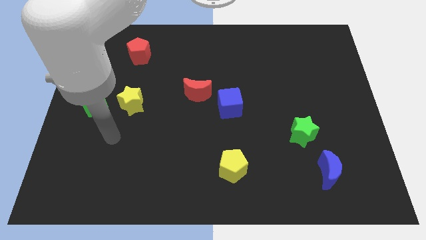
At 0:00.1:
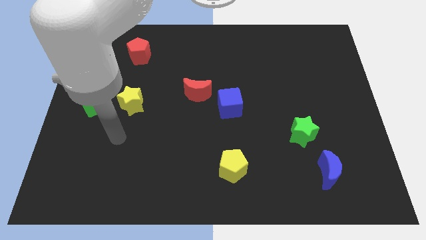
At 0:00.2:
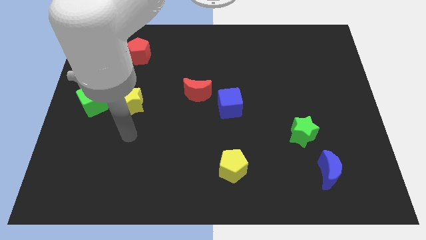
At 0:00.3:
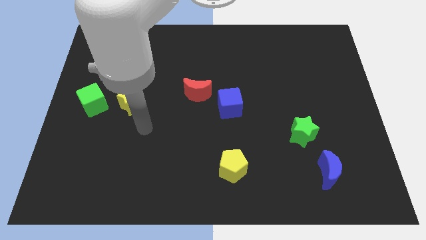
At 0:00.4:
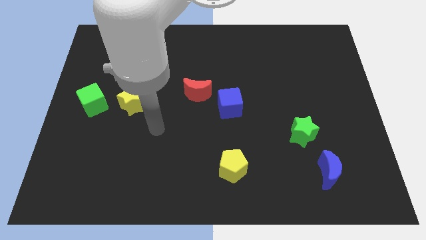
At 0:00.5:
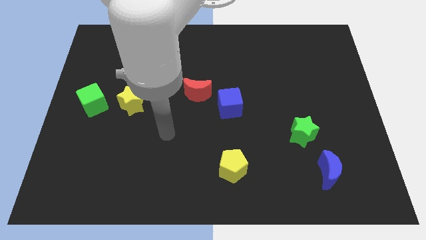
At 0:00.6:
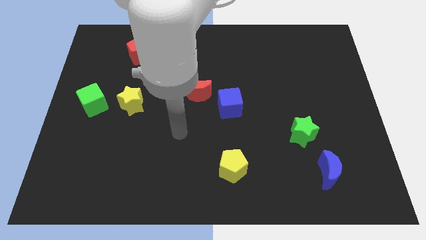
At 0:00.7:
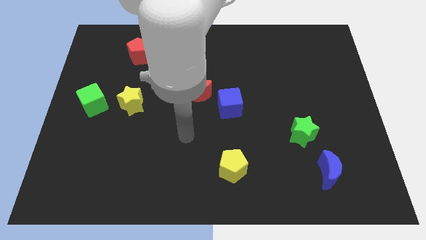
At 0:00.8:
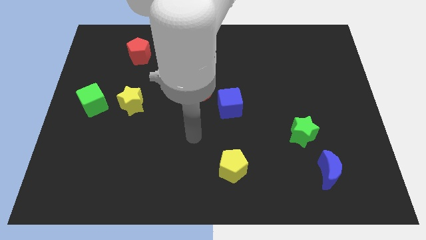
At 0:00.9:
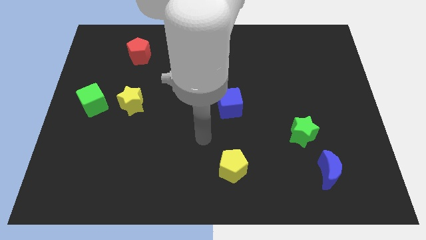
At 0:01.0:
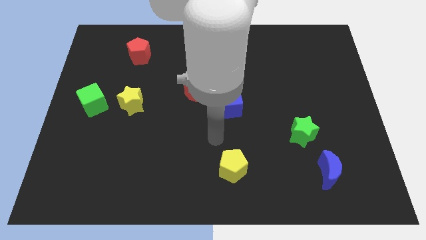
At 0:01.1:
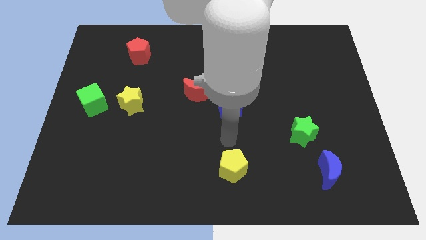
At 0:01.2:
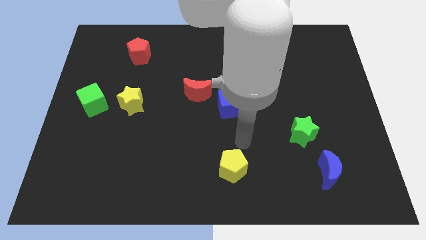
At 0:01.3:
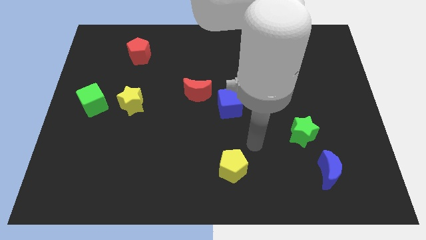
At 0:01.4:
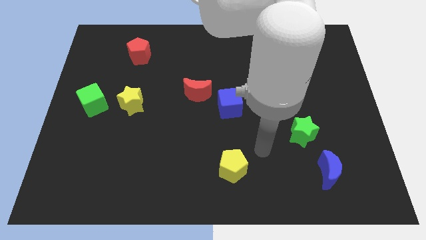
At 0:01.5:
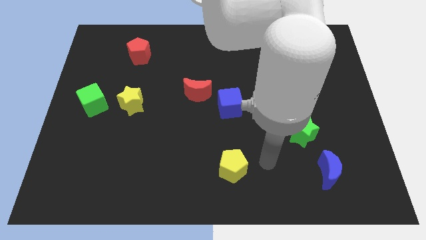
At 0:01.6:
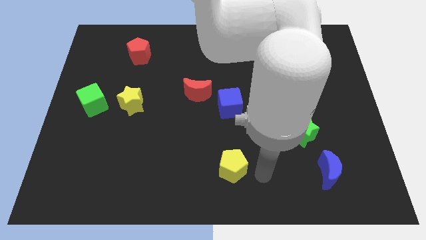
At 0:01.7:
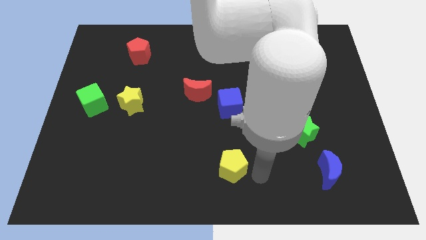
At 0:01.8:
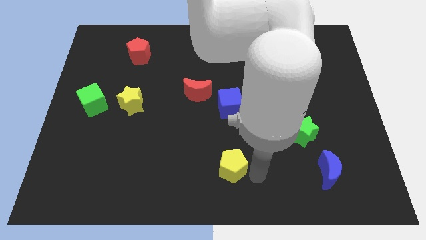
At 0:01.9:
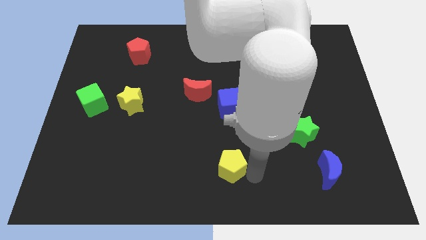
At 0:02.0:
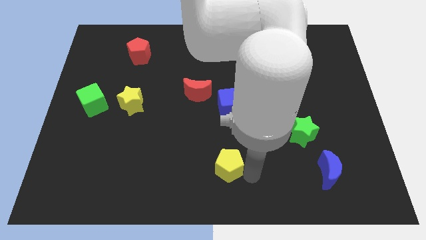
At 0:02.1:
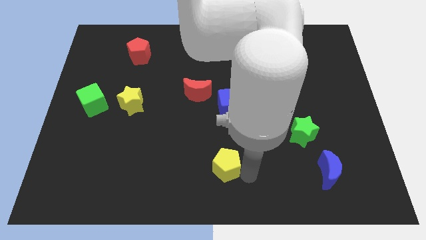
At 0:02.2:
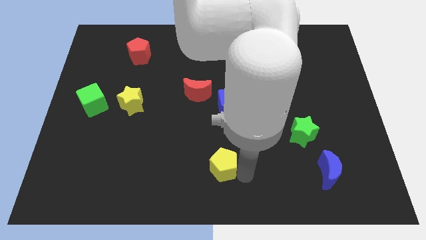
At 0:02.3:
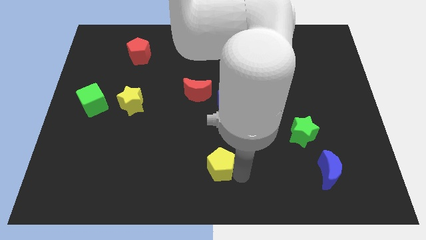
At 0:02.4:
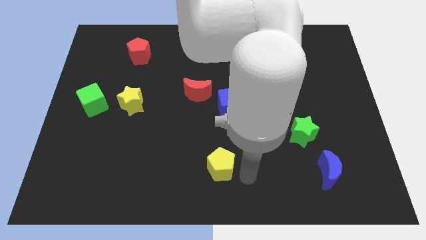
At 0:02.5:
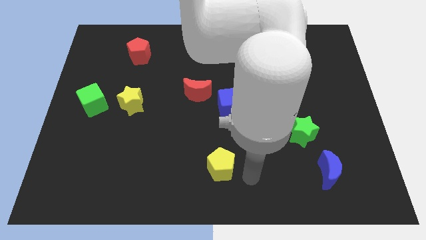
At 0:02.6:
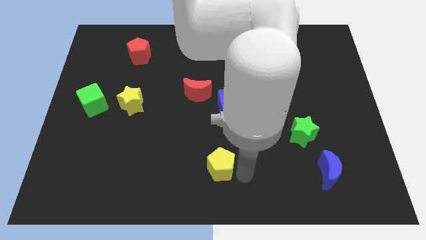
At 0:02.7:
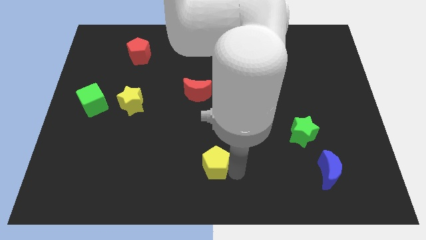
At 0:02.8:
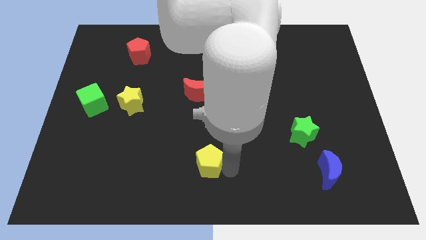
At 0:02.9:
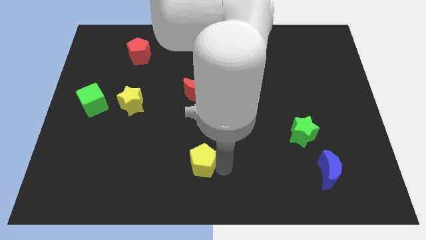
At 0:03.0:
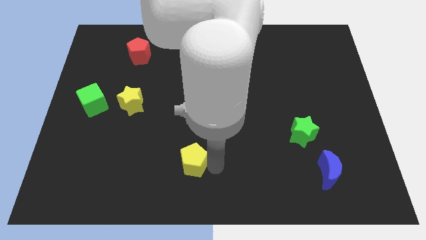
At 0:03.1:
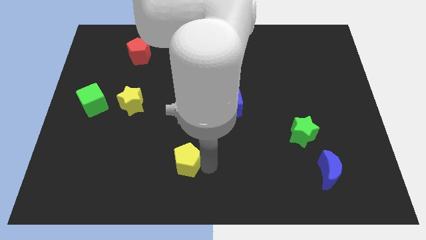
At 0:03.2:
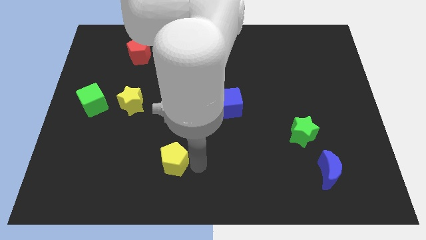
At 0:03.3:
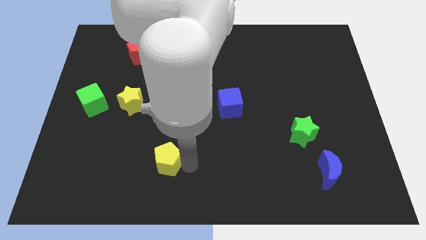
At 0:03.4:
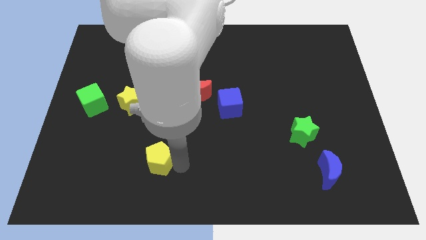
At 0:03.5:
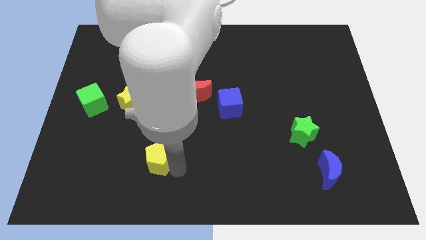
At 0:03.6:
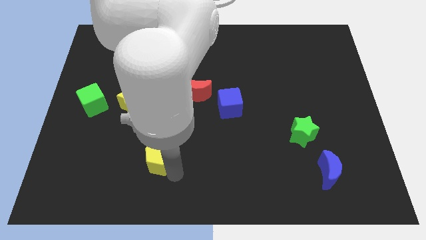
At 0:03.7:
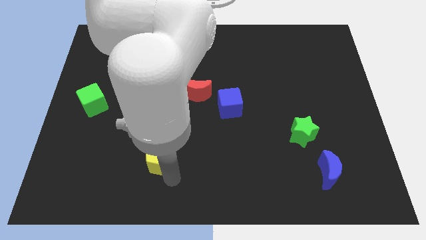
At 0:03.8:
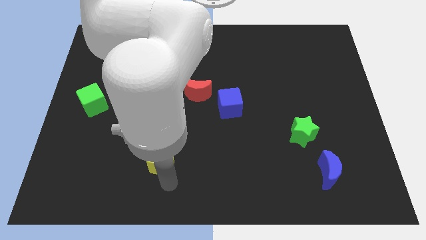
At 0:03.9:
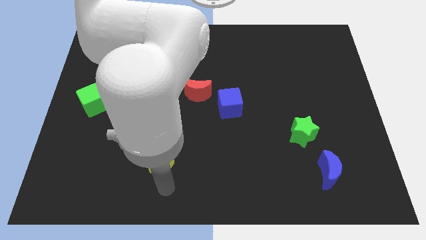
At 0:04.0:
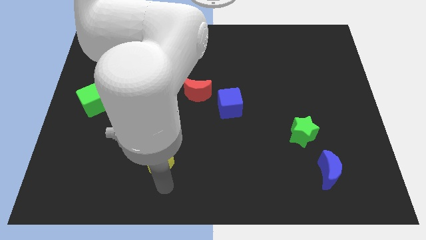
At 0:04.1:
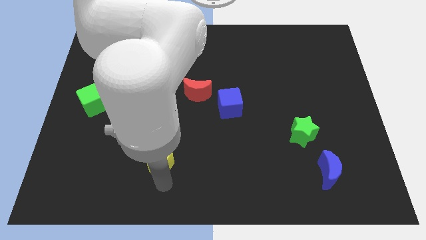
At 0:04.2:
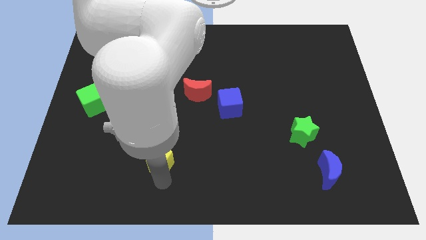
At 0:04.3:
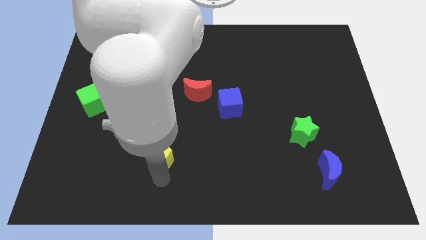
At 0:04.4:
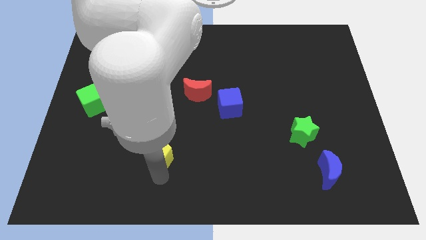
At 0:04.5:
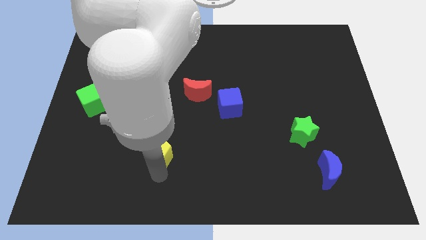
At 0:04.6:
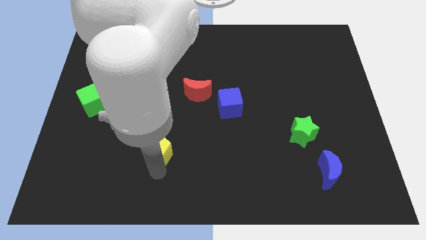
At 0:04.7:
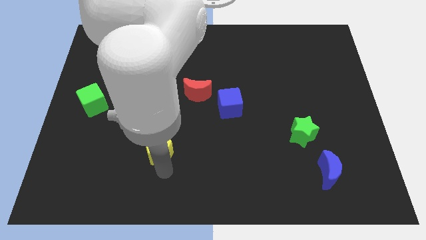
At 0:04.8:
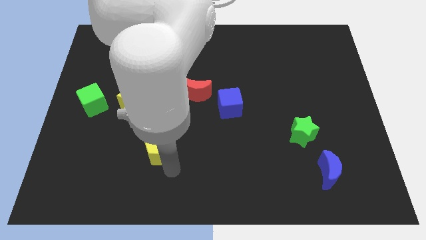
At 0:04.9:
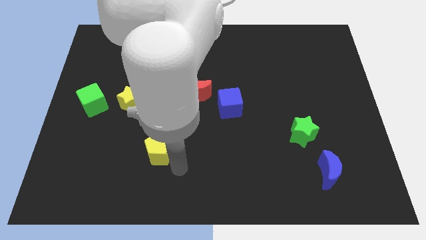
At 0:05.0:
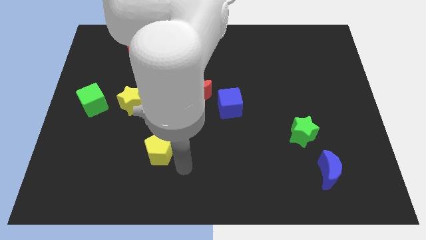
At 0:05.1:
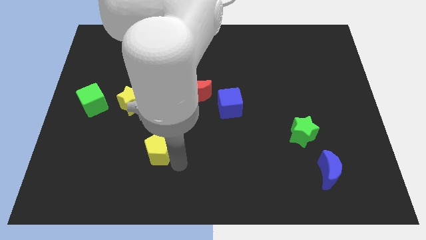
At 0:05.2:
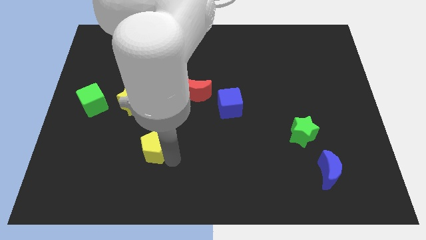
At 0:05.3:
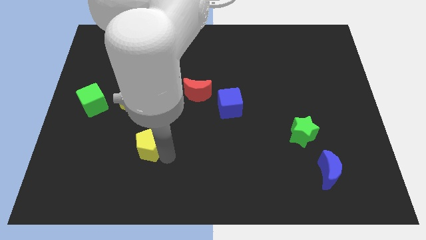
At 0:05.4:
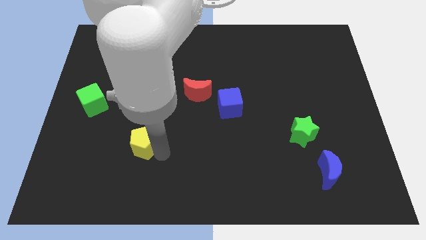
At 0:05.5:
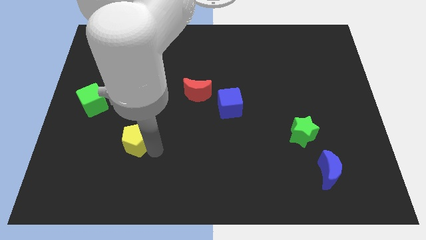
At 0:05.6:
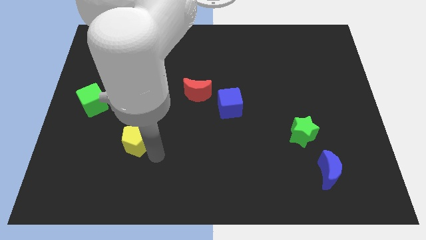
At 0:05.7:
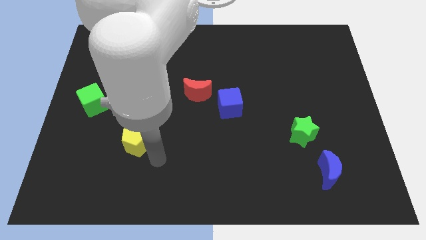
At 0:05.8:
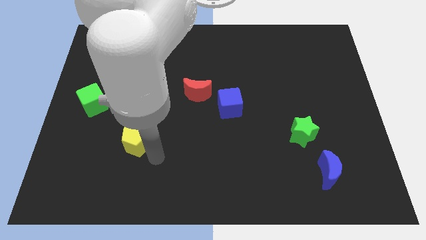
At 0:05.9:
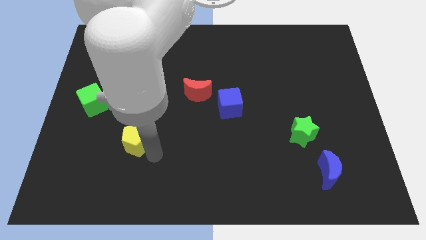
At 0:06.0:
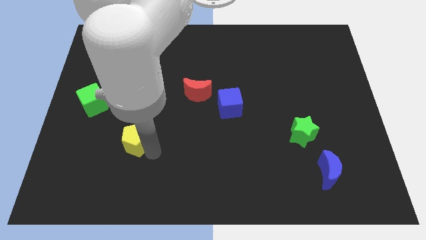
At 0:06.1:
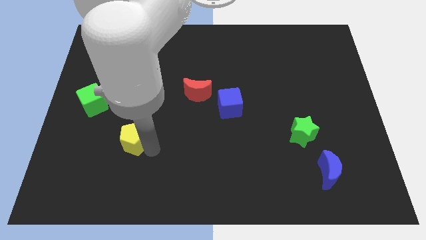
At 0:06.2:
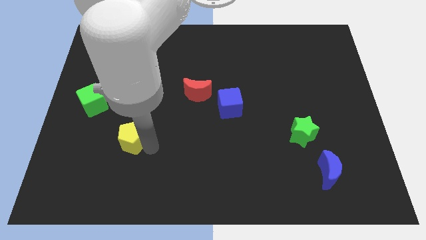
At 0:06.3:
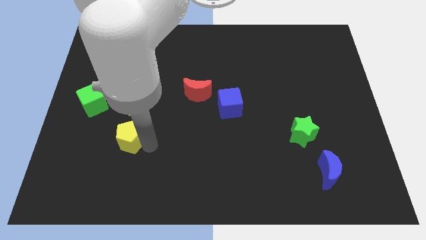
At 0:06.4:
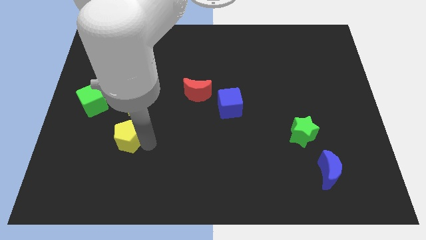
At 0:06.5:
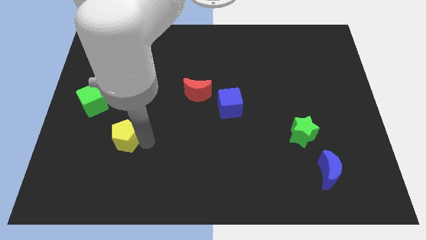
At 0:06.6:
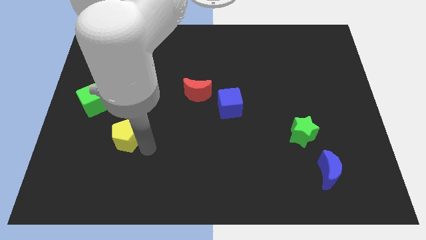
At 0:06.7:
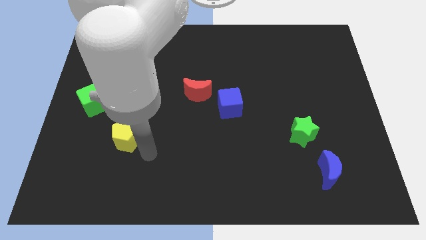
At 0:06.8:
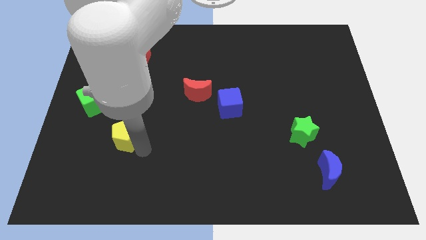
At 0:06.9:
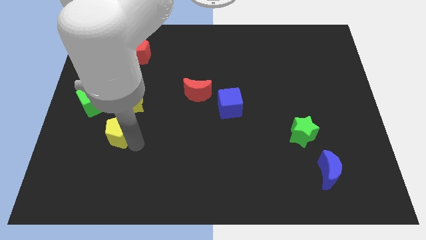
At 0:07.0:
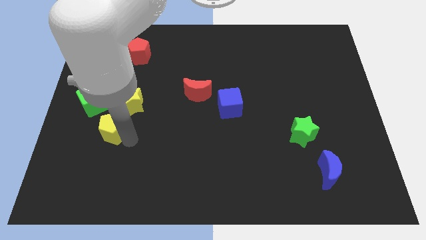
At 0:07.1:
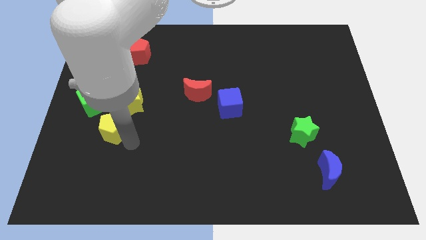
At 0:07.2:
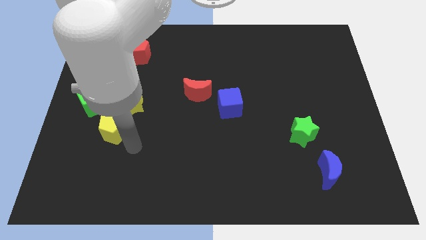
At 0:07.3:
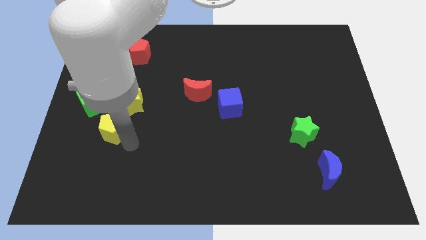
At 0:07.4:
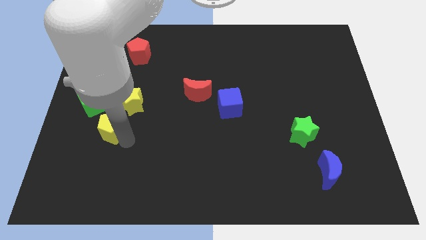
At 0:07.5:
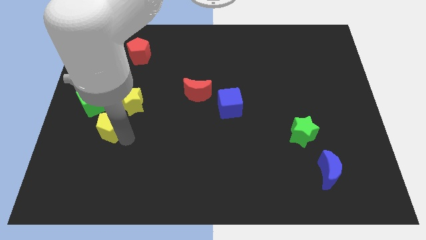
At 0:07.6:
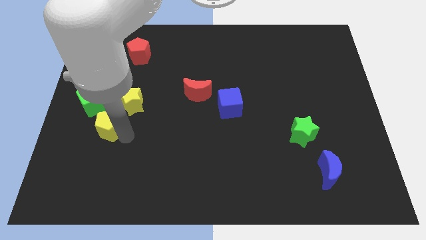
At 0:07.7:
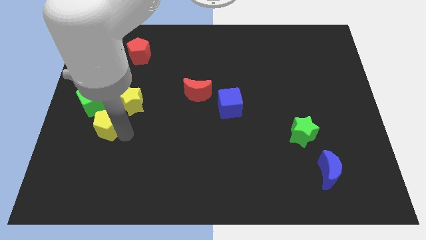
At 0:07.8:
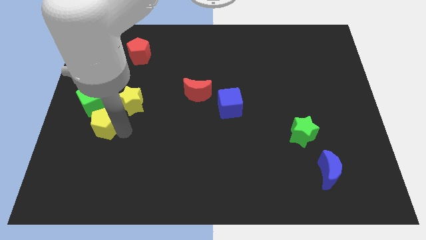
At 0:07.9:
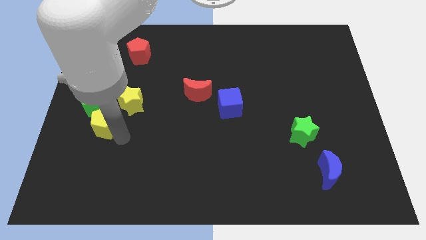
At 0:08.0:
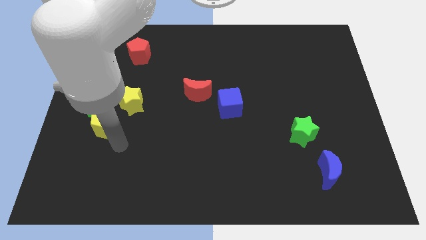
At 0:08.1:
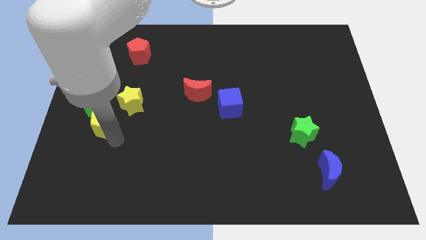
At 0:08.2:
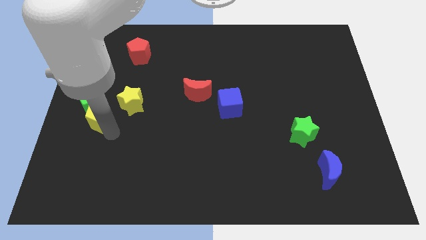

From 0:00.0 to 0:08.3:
put the yellow pentagon to the green cube
